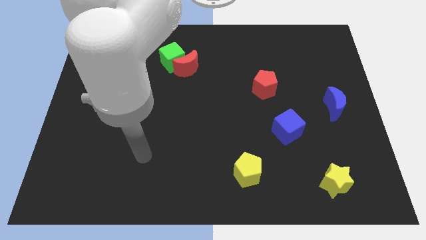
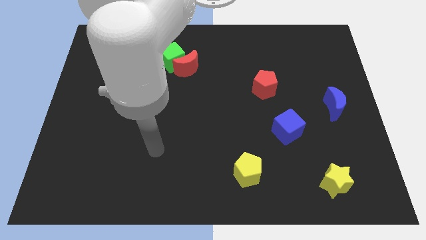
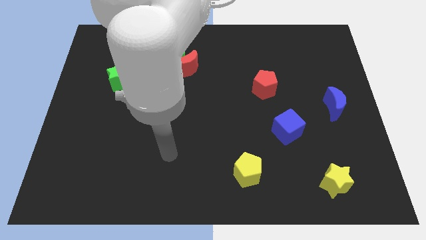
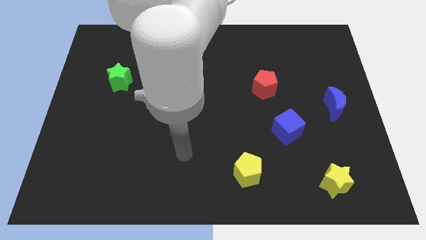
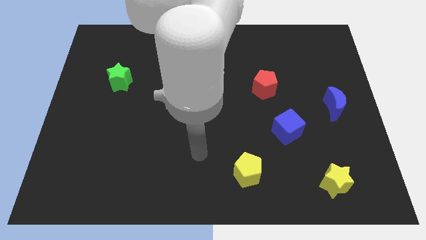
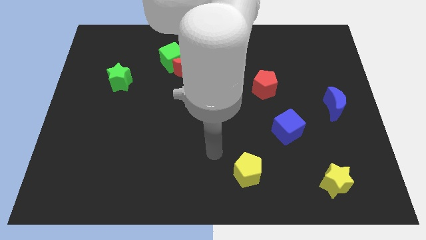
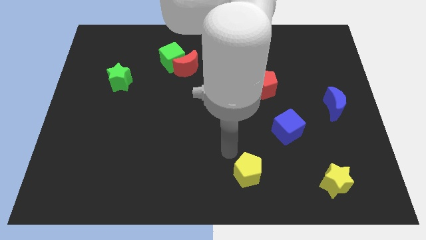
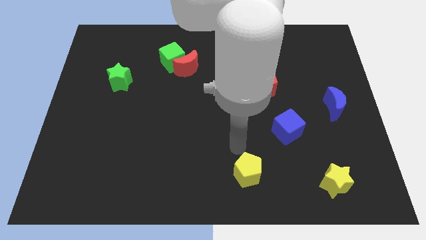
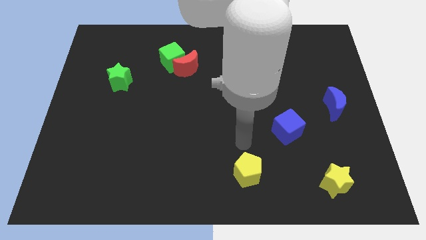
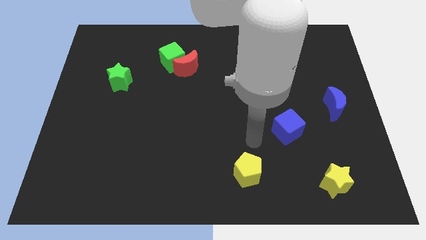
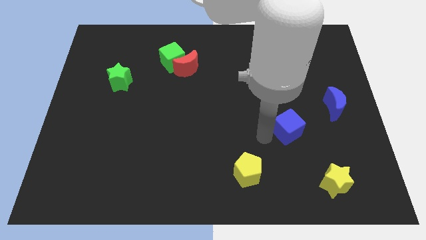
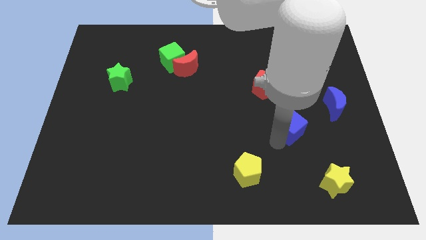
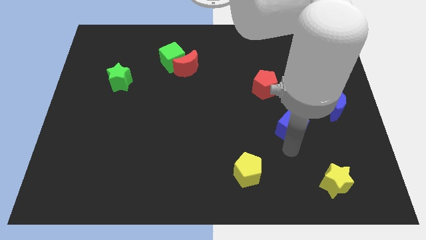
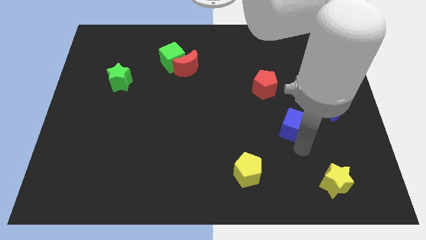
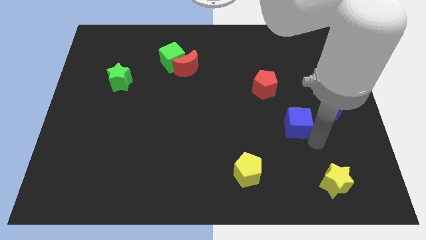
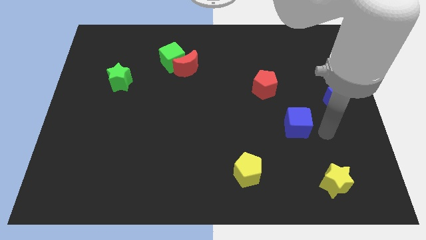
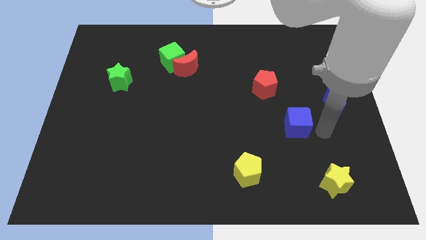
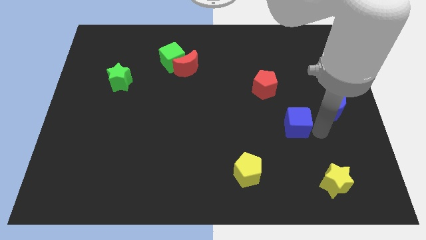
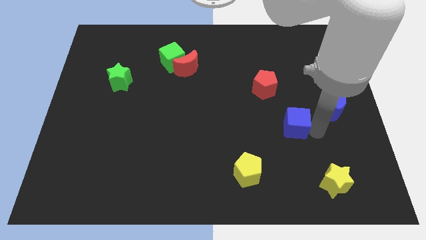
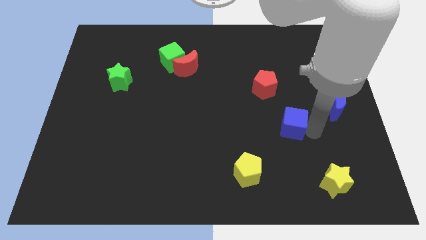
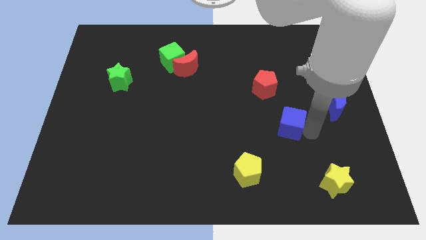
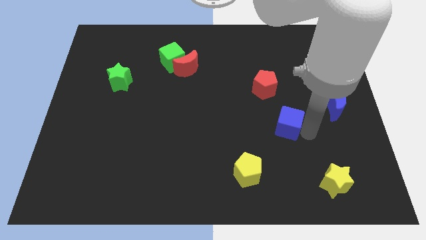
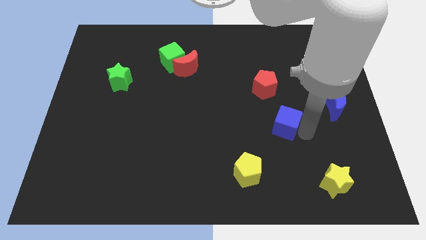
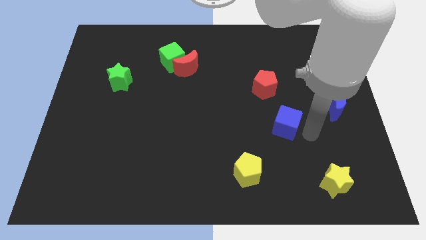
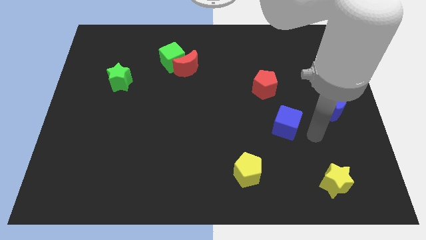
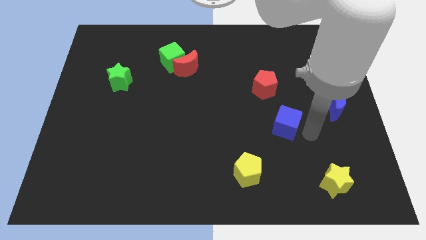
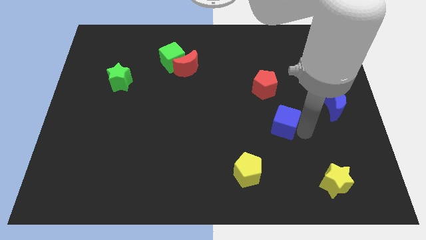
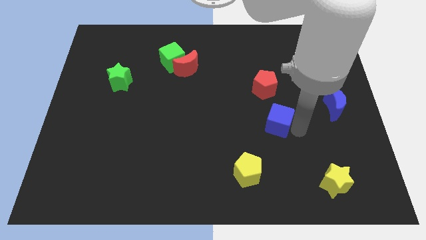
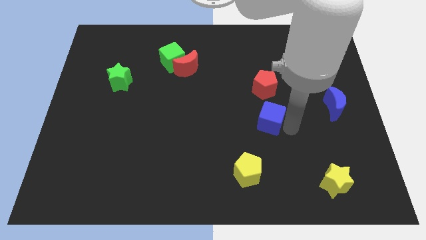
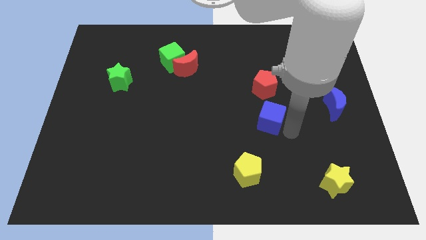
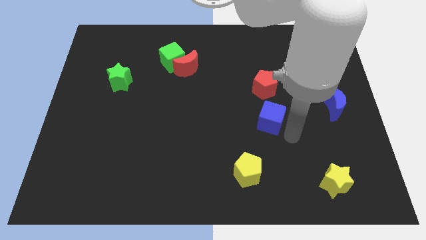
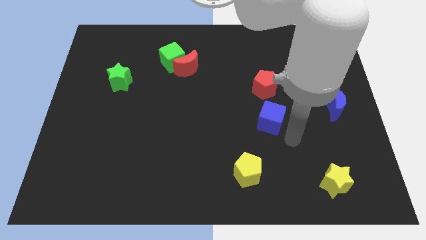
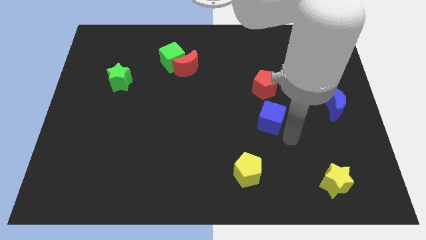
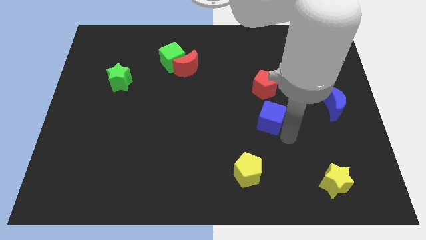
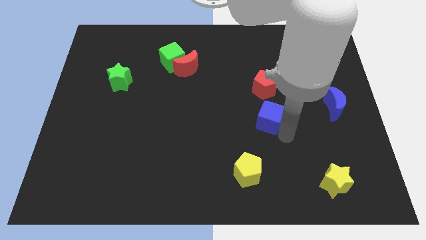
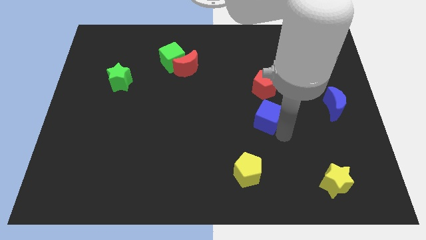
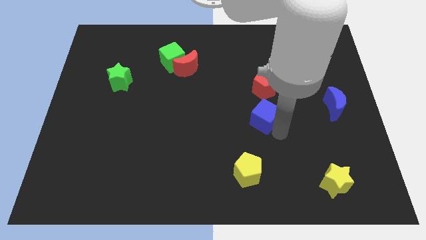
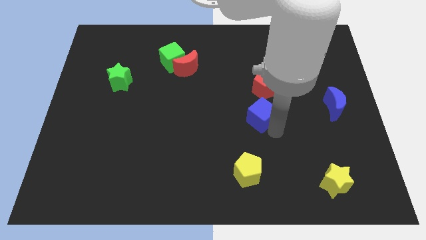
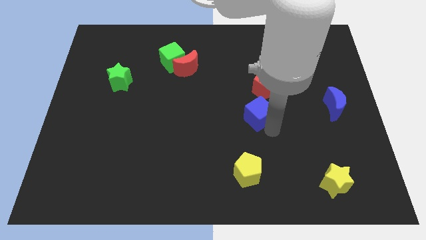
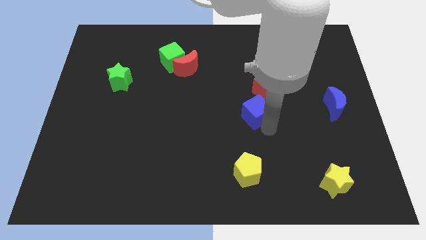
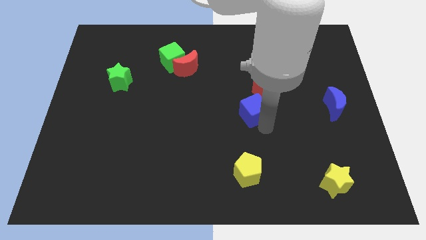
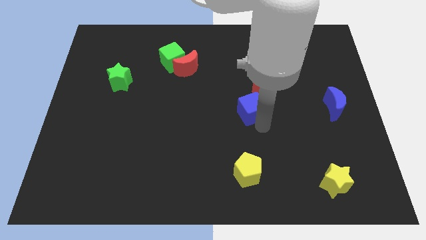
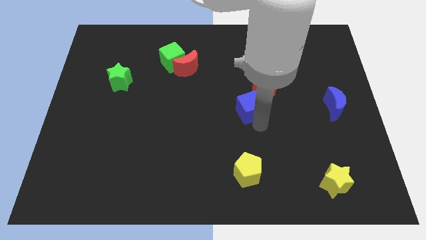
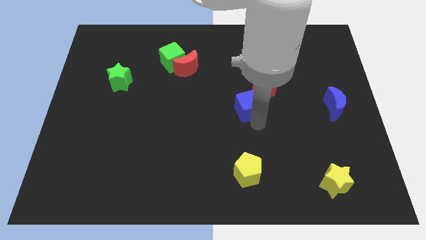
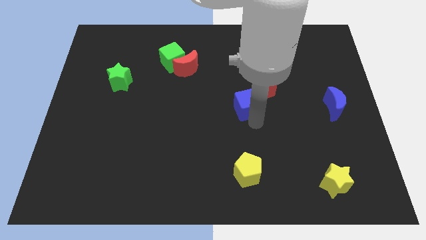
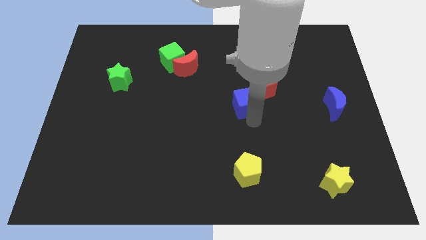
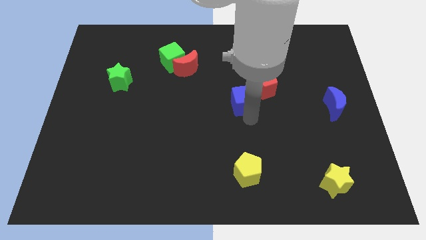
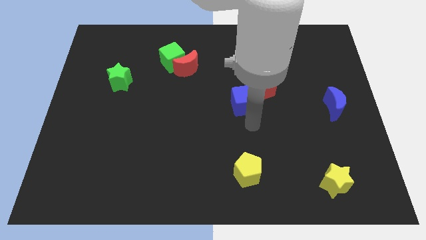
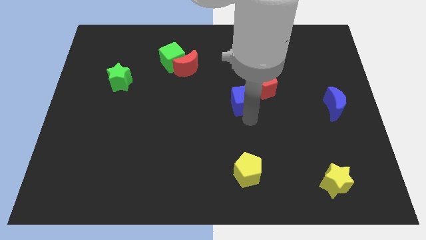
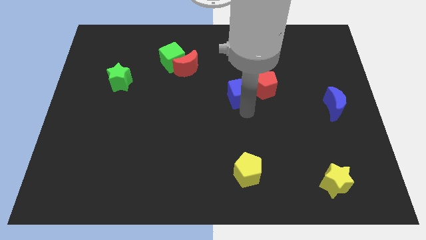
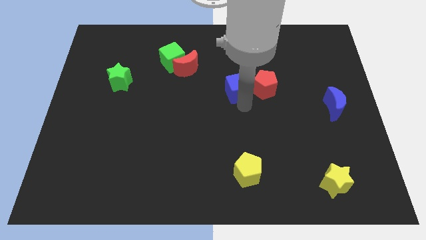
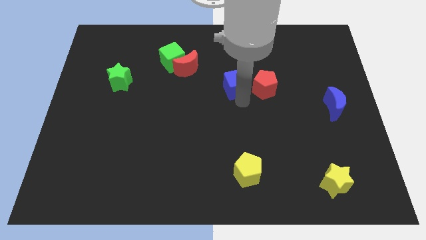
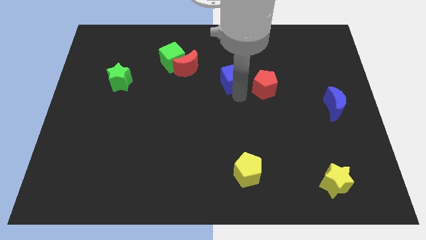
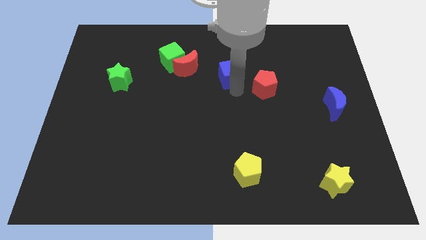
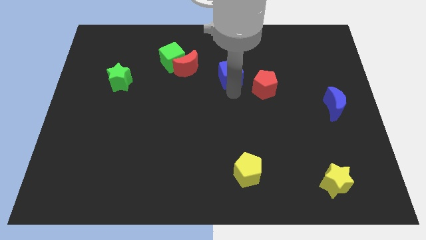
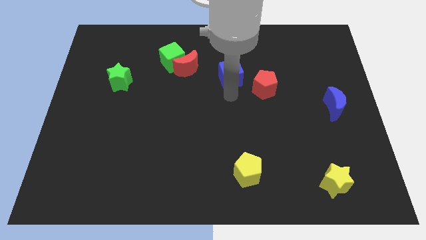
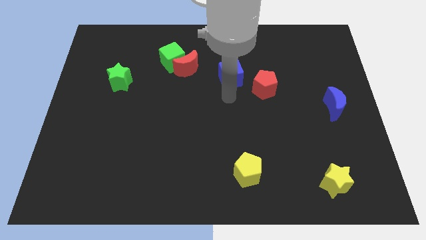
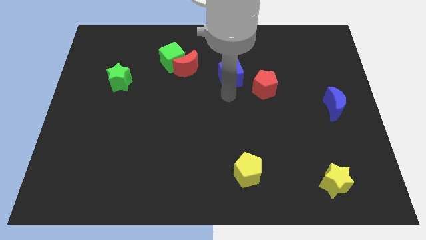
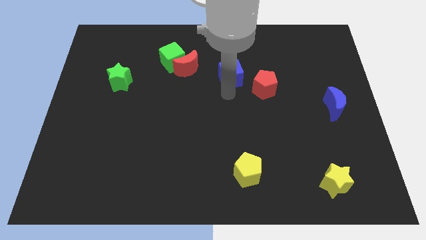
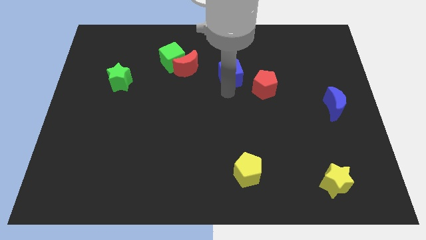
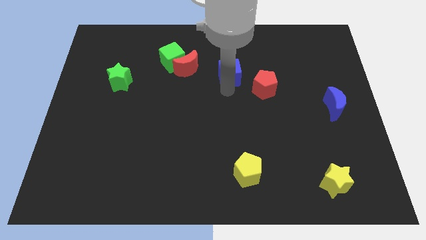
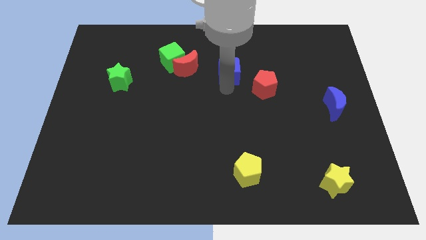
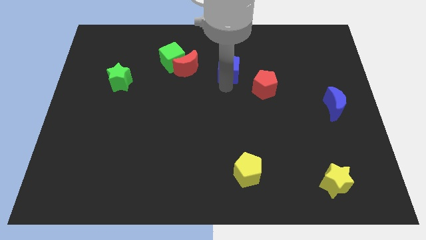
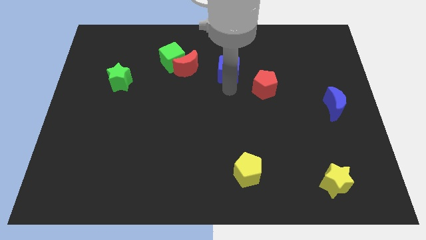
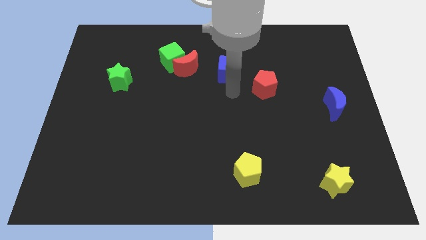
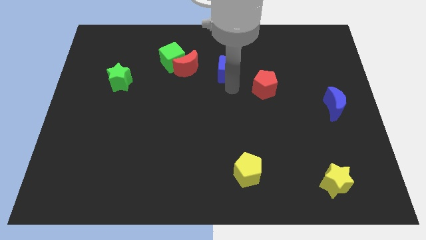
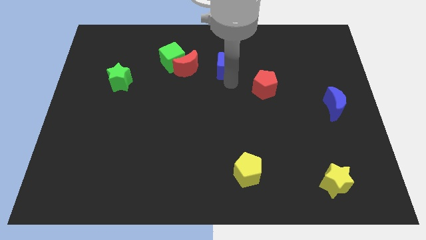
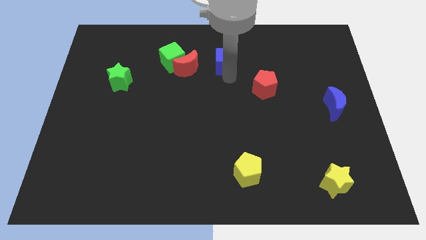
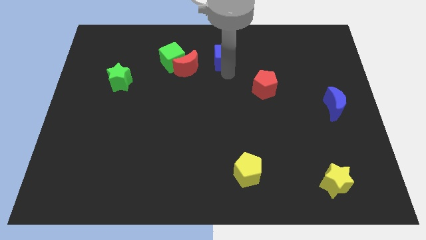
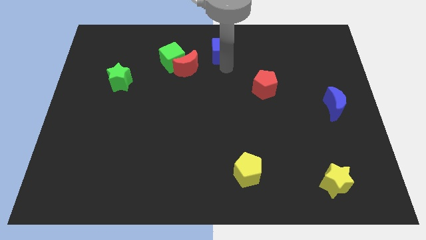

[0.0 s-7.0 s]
put the blue cube to the towards your base

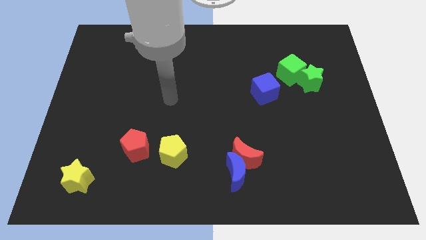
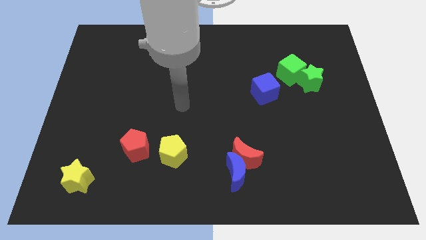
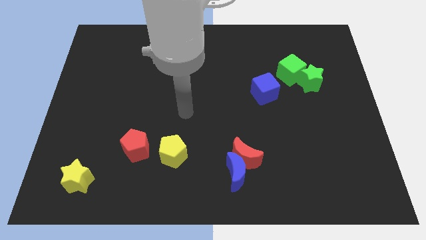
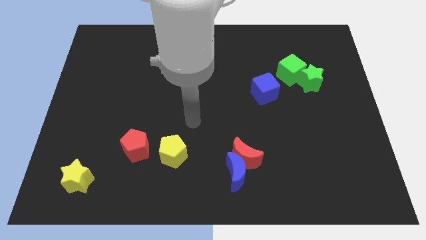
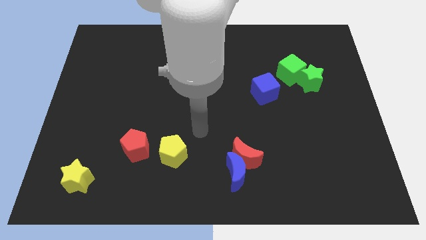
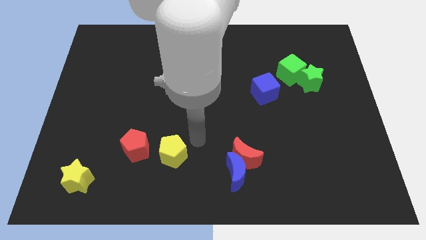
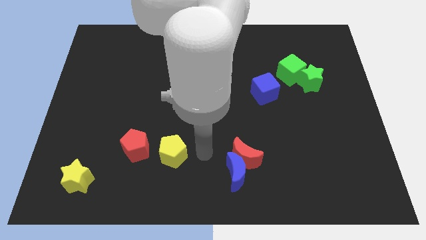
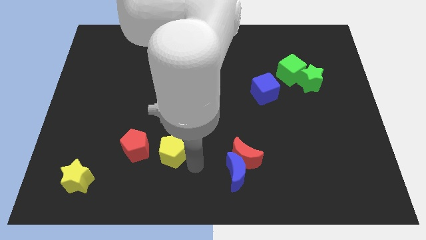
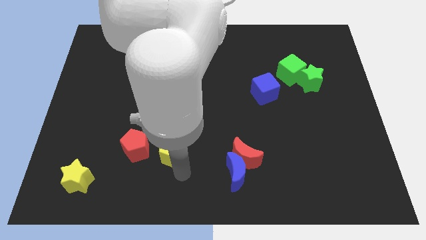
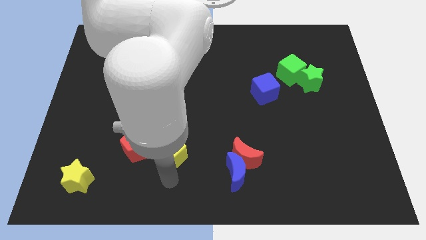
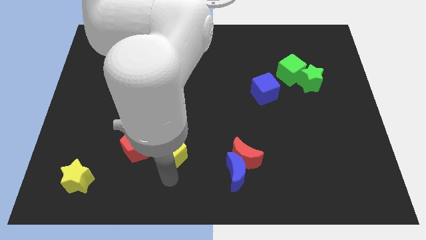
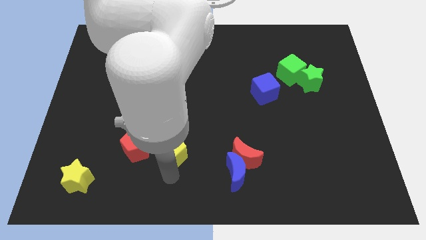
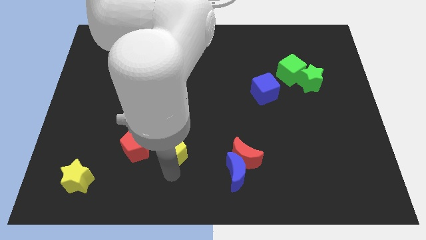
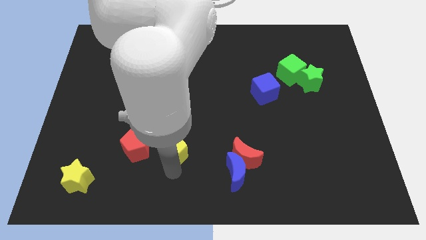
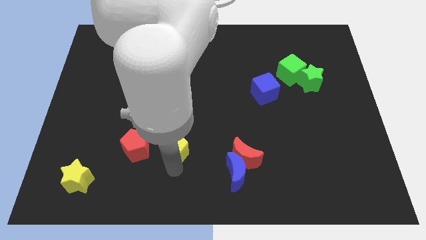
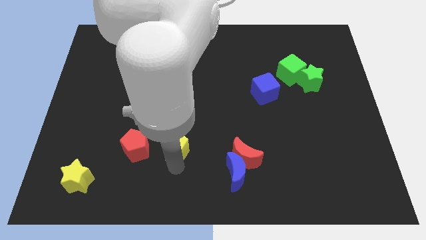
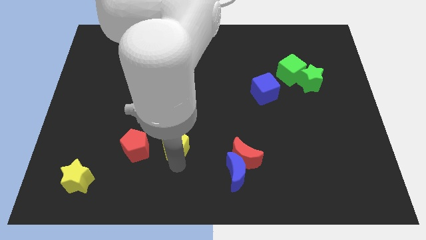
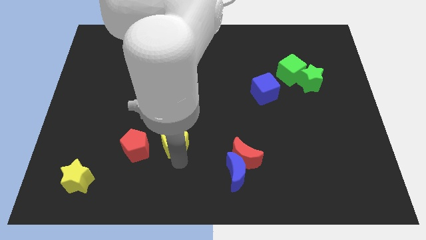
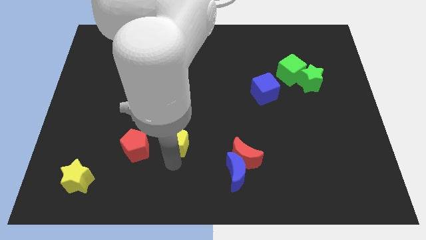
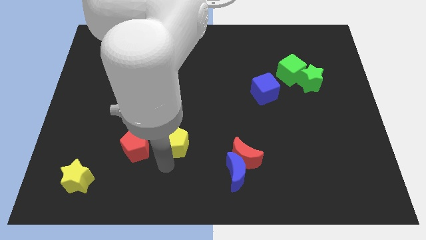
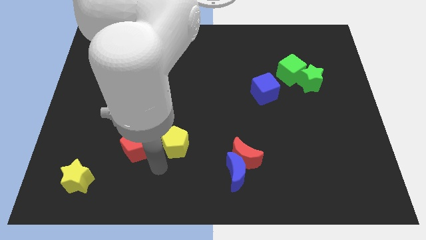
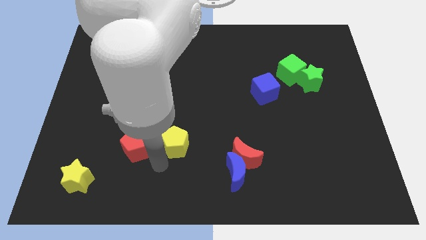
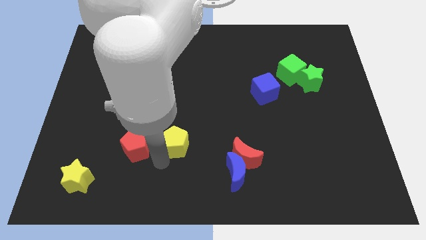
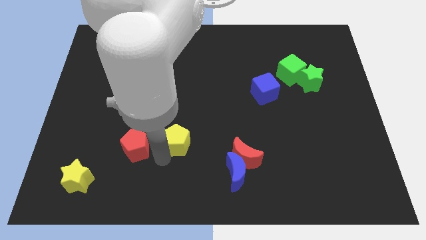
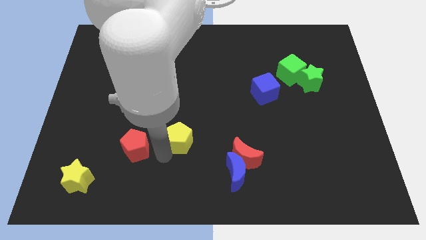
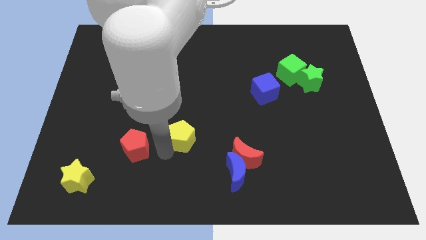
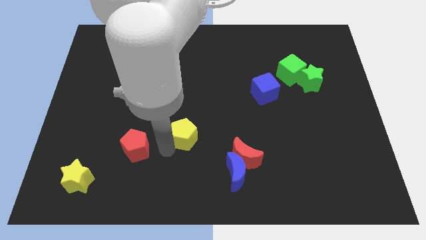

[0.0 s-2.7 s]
move the yellow pentagon to the middle of the board
